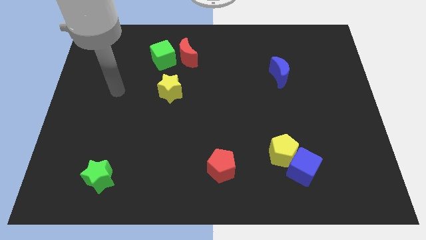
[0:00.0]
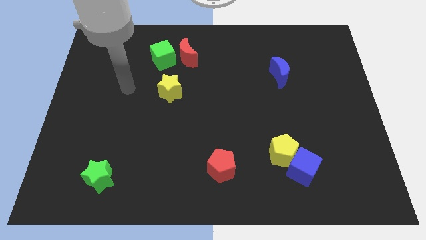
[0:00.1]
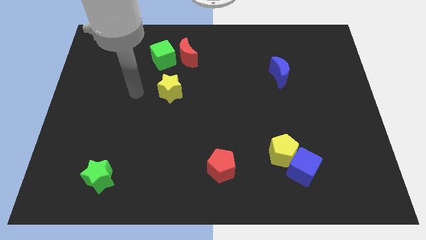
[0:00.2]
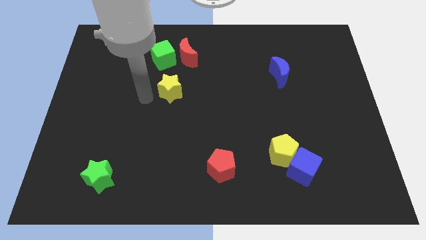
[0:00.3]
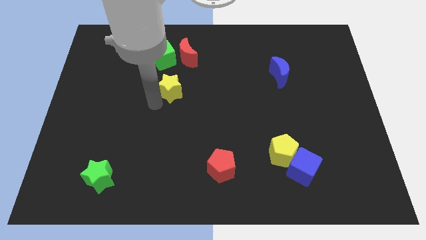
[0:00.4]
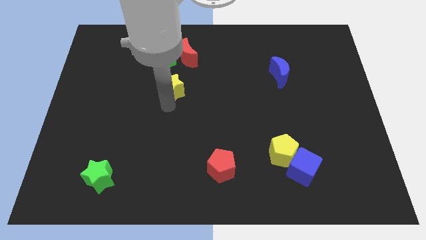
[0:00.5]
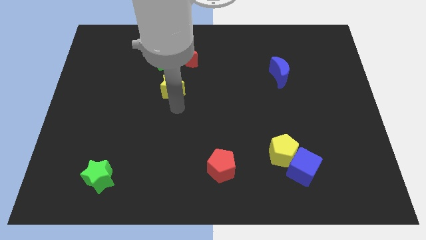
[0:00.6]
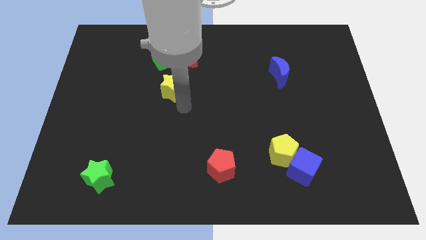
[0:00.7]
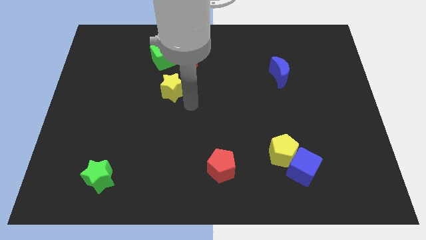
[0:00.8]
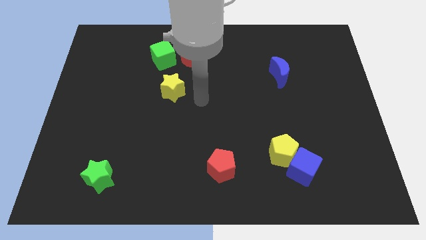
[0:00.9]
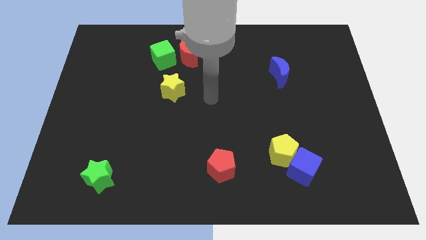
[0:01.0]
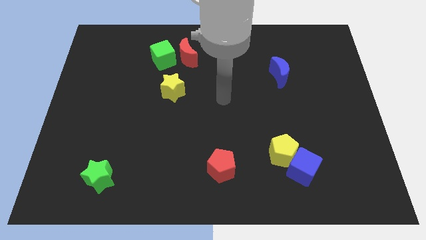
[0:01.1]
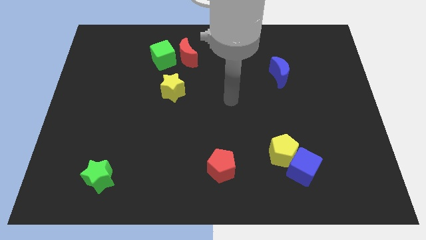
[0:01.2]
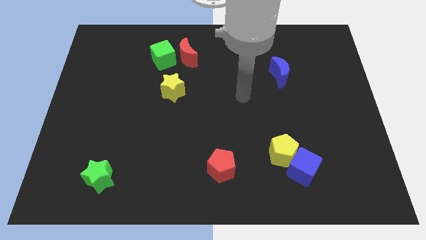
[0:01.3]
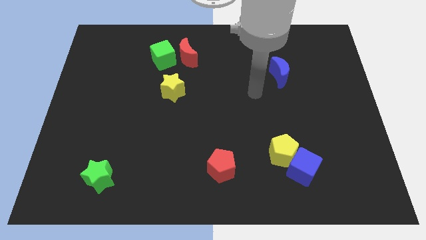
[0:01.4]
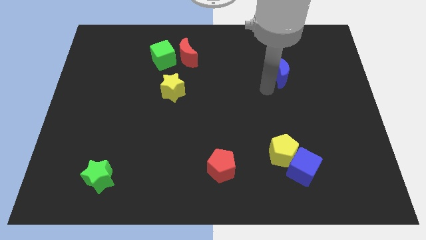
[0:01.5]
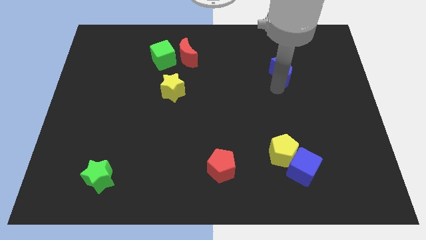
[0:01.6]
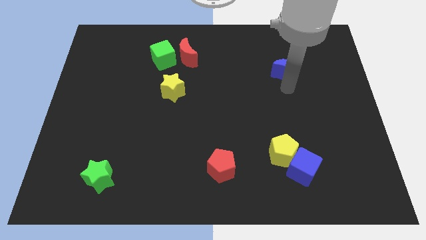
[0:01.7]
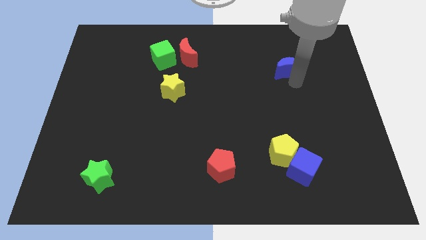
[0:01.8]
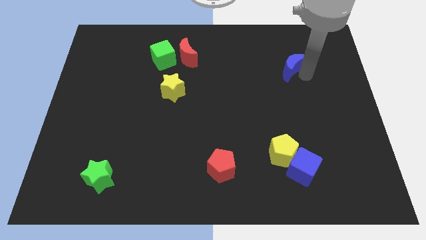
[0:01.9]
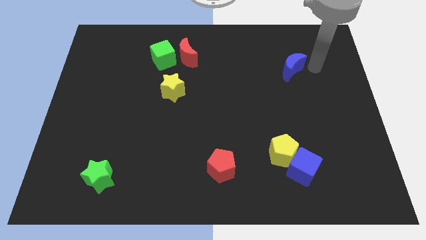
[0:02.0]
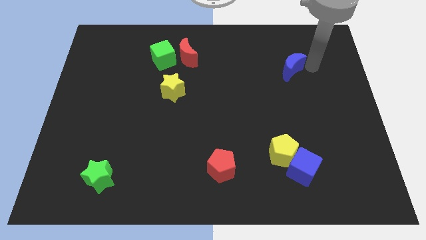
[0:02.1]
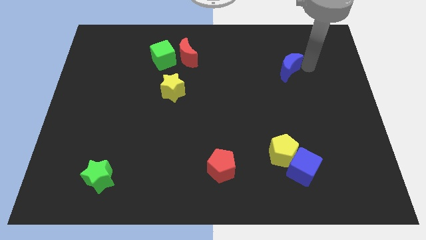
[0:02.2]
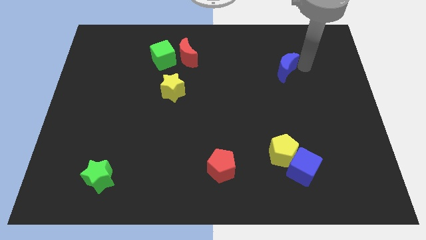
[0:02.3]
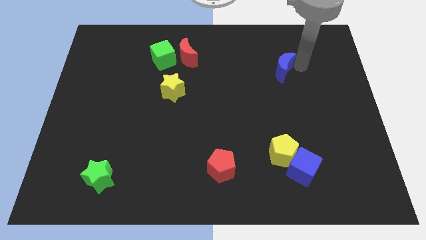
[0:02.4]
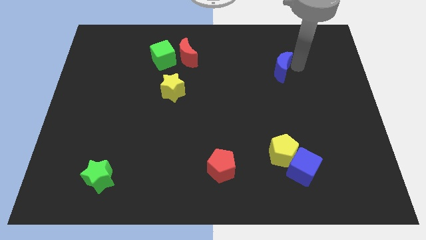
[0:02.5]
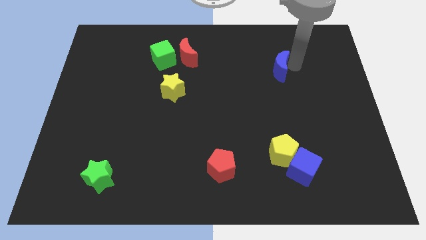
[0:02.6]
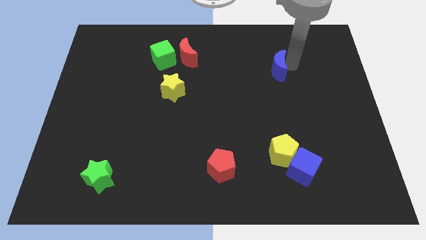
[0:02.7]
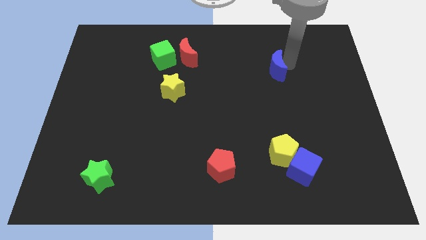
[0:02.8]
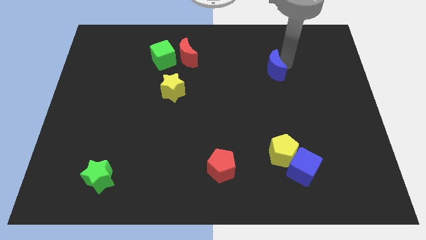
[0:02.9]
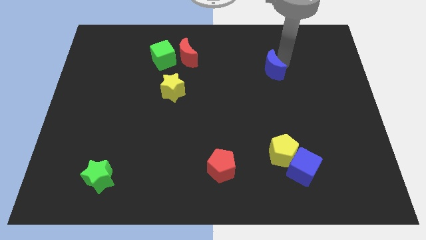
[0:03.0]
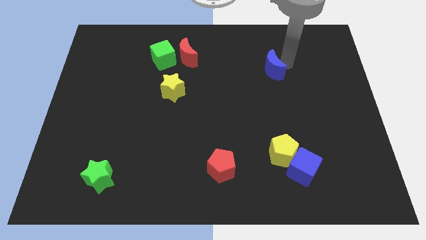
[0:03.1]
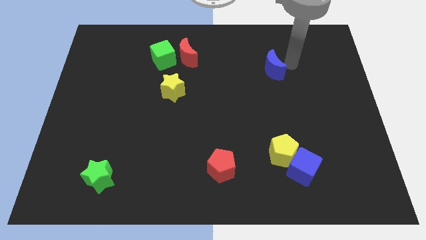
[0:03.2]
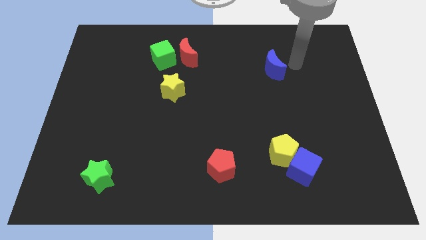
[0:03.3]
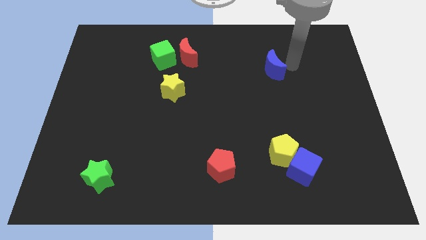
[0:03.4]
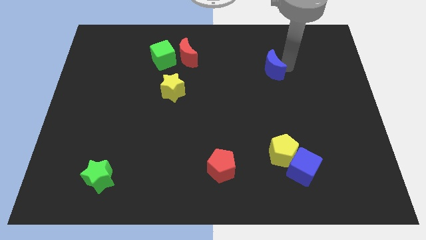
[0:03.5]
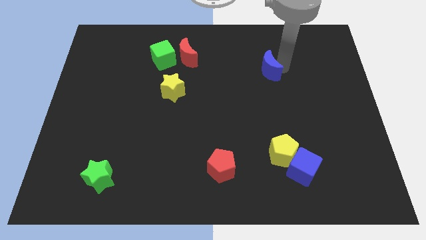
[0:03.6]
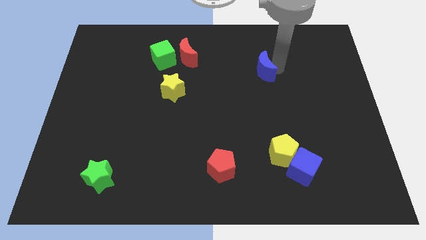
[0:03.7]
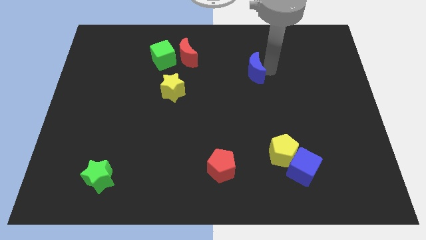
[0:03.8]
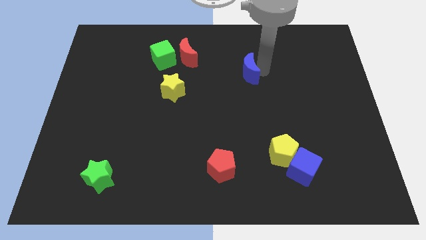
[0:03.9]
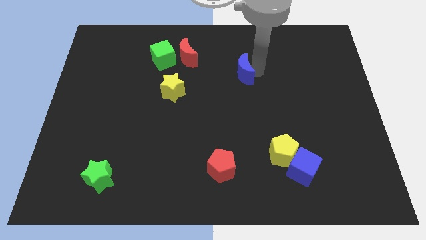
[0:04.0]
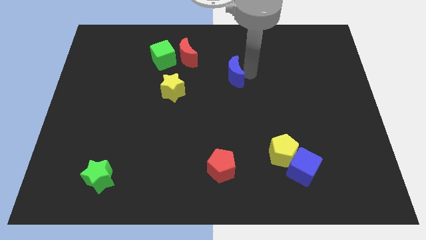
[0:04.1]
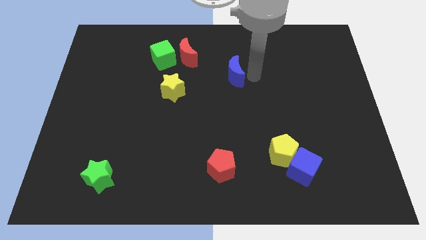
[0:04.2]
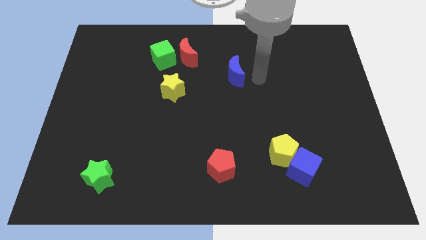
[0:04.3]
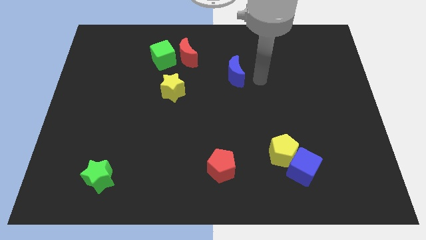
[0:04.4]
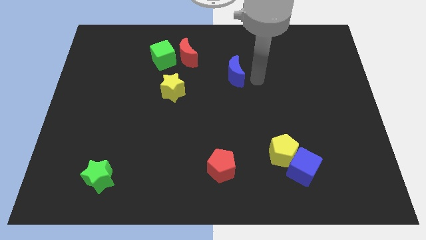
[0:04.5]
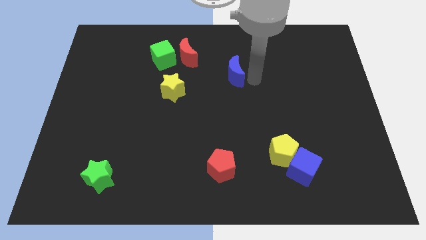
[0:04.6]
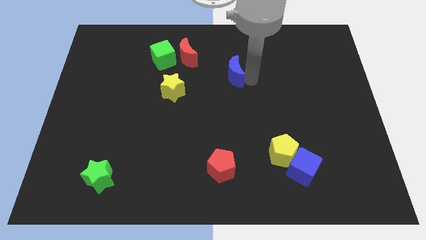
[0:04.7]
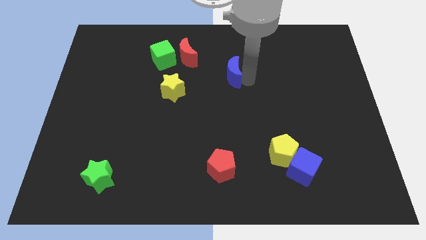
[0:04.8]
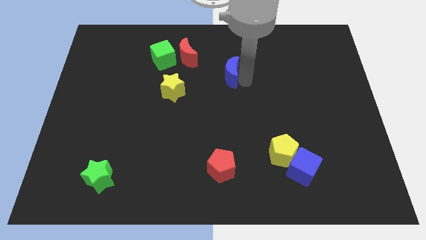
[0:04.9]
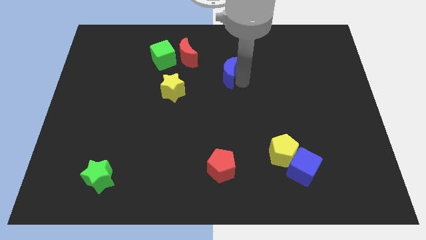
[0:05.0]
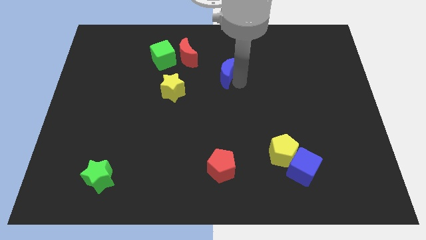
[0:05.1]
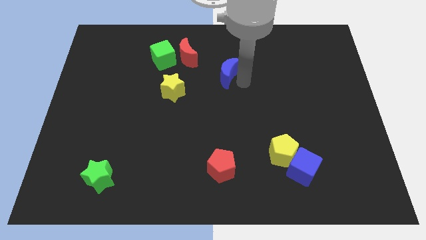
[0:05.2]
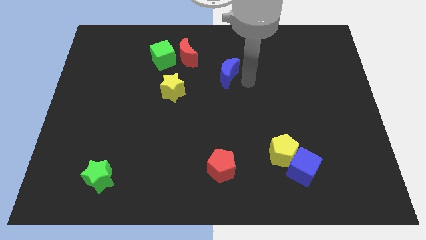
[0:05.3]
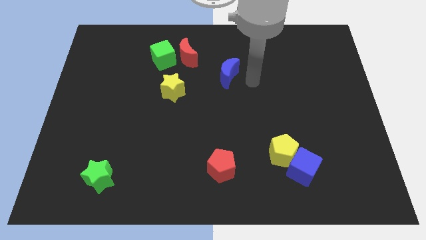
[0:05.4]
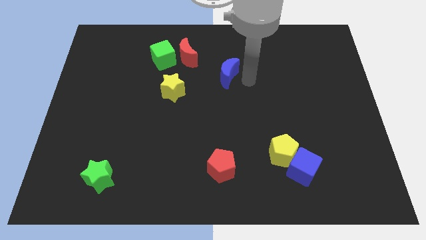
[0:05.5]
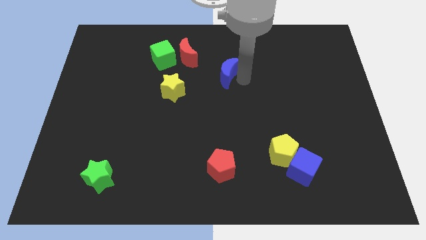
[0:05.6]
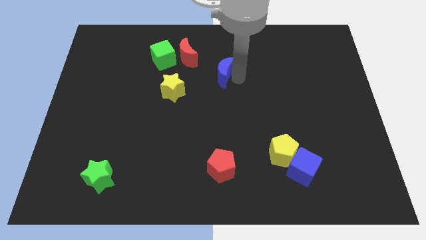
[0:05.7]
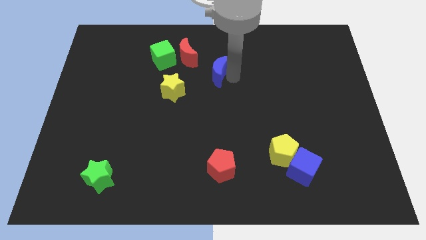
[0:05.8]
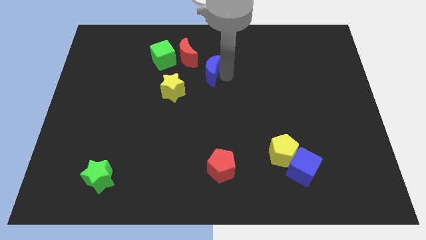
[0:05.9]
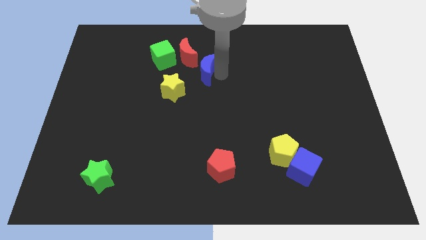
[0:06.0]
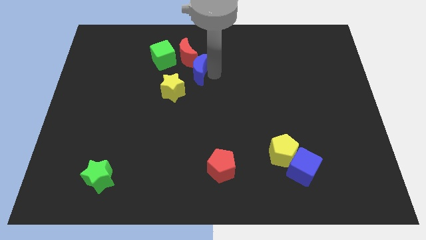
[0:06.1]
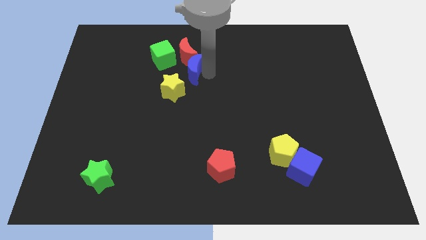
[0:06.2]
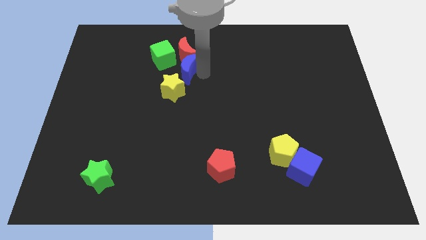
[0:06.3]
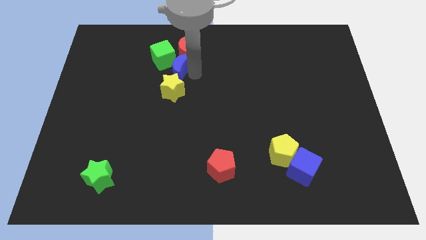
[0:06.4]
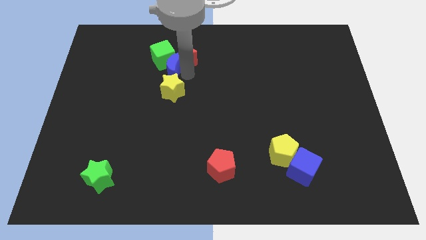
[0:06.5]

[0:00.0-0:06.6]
slide the blue moon close to the green cube

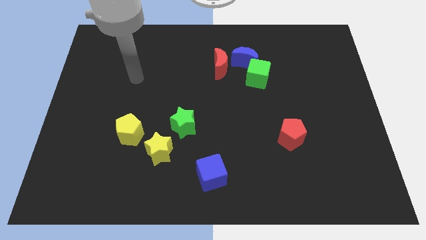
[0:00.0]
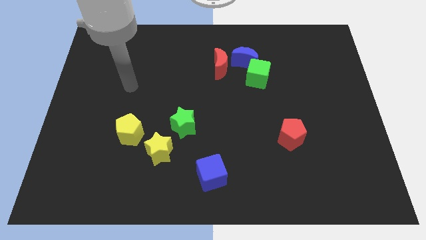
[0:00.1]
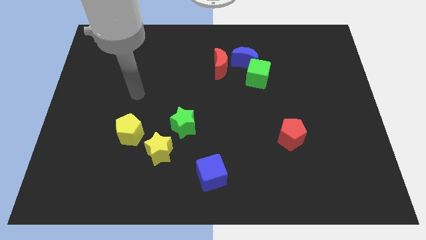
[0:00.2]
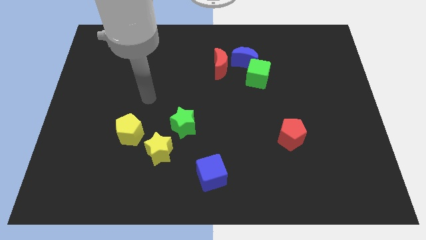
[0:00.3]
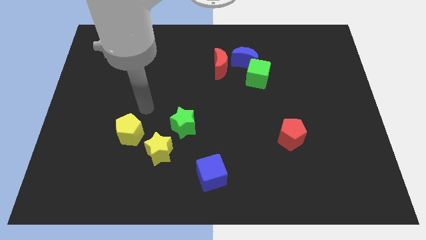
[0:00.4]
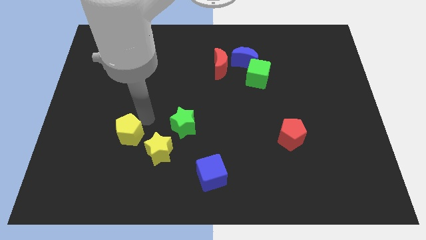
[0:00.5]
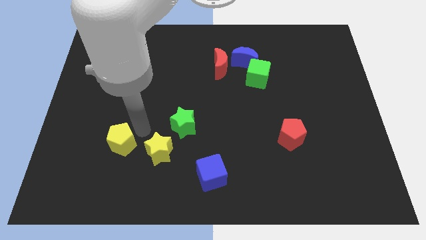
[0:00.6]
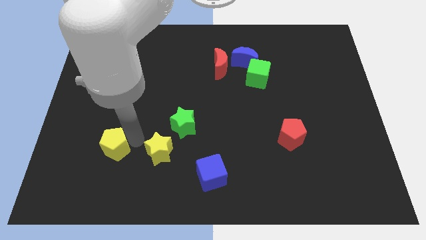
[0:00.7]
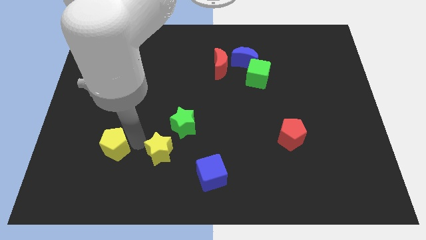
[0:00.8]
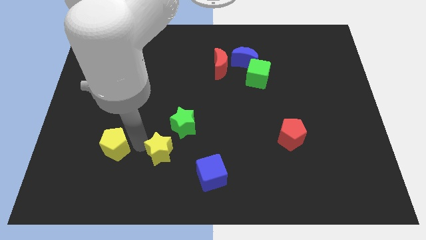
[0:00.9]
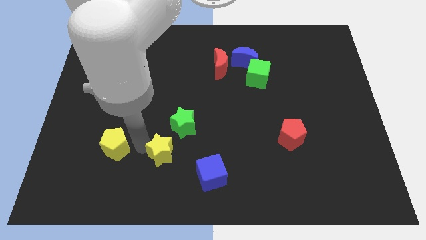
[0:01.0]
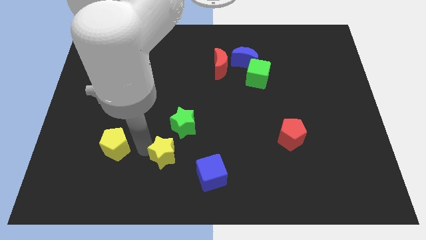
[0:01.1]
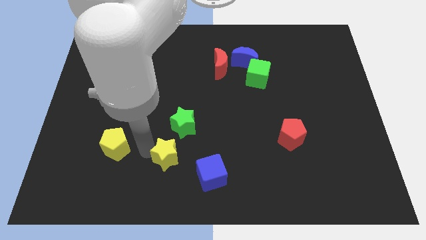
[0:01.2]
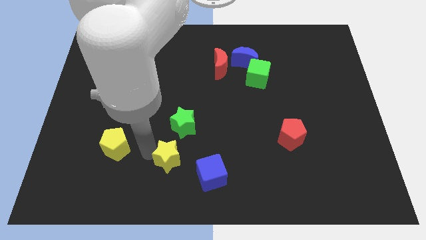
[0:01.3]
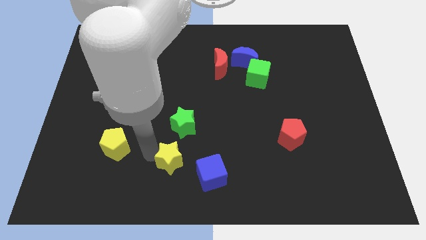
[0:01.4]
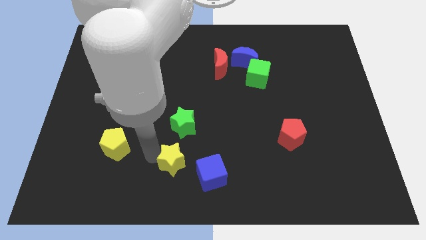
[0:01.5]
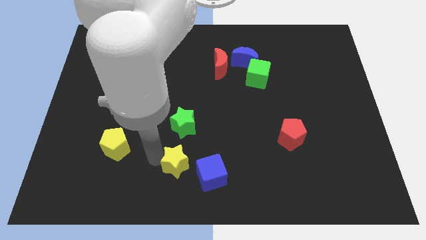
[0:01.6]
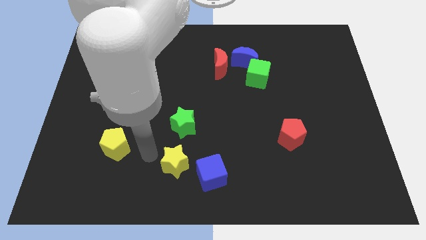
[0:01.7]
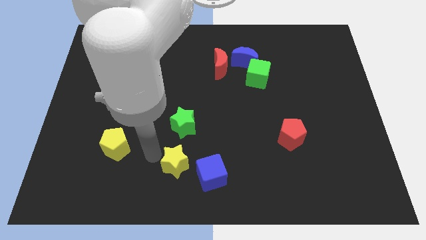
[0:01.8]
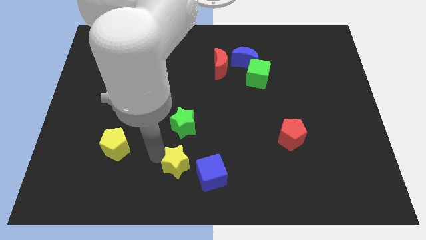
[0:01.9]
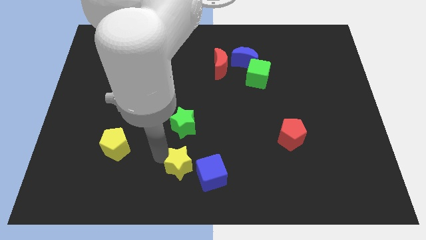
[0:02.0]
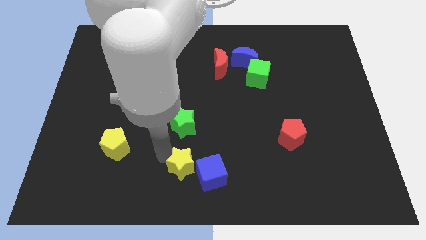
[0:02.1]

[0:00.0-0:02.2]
slide the yellow star to the blue cube
